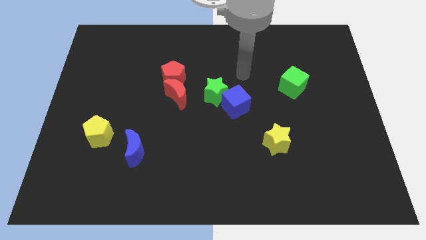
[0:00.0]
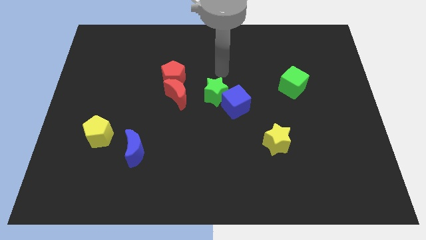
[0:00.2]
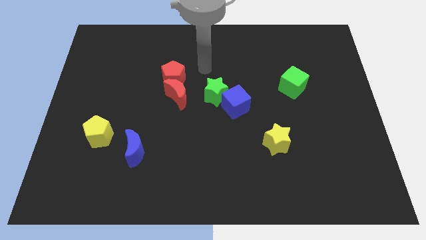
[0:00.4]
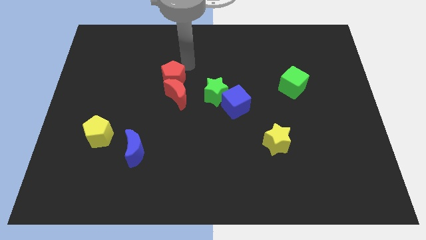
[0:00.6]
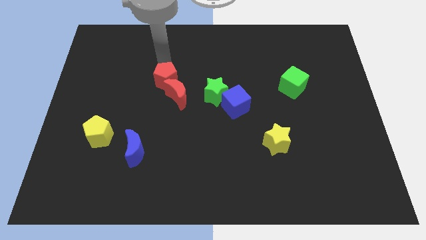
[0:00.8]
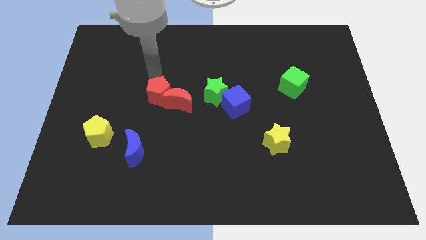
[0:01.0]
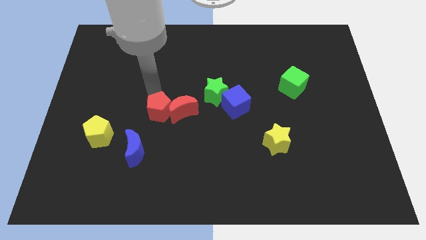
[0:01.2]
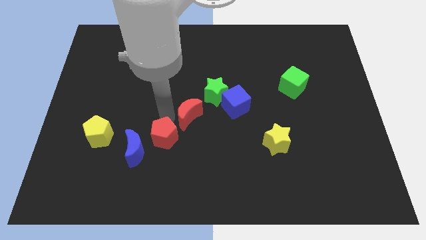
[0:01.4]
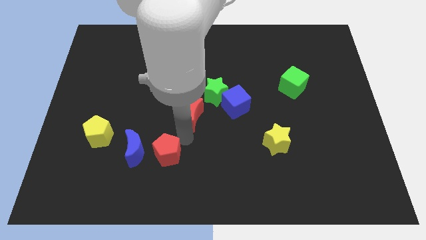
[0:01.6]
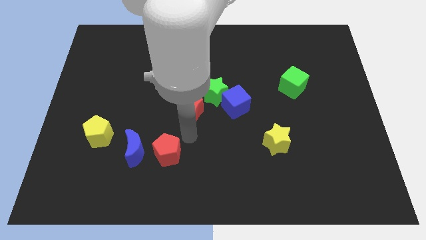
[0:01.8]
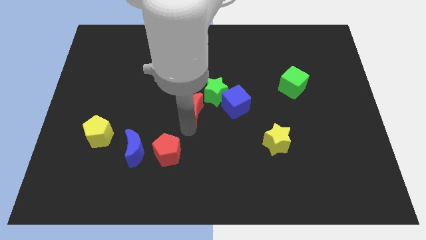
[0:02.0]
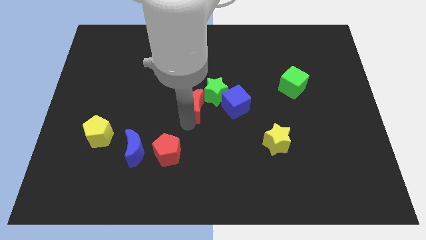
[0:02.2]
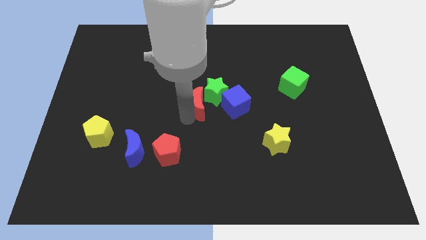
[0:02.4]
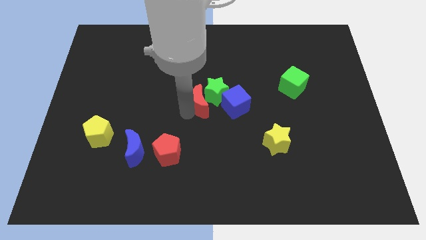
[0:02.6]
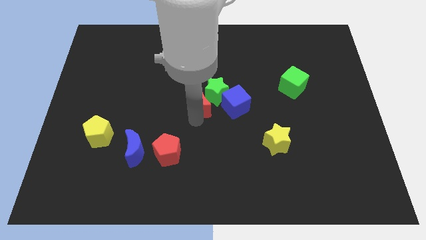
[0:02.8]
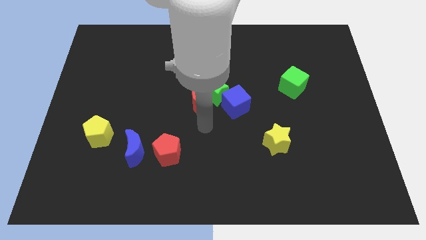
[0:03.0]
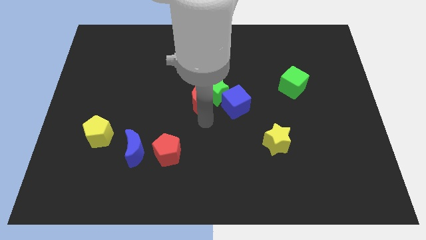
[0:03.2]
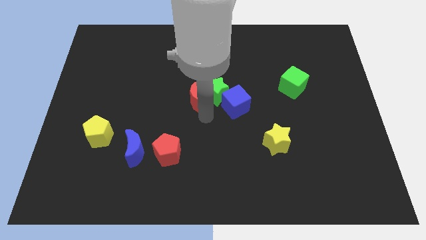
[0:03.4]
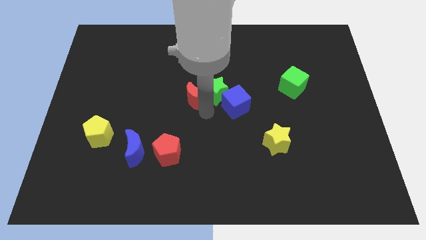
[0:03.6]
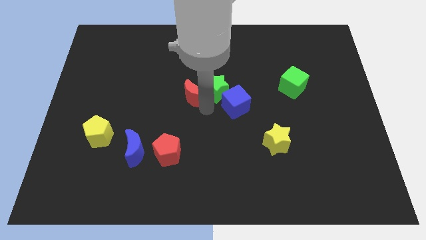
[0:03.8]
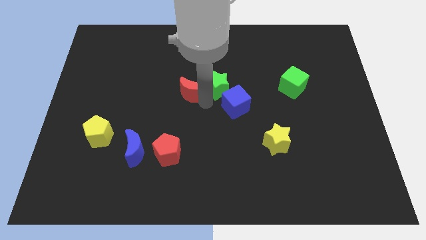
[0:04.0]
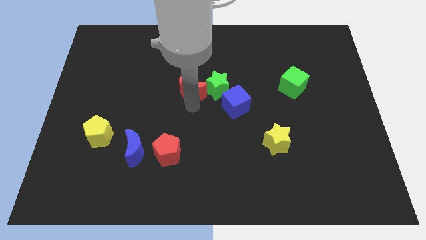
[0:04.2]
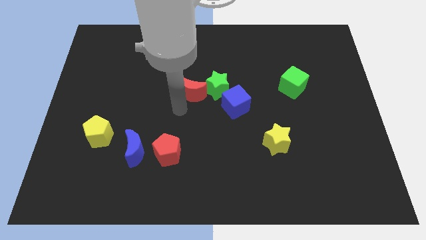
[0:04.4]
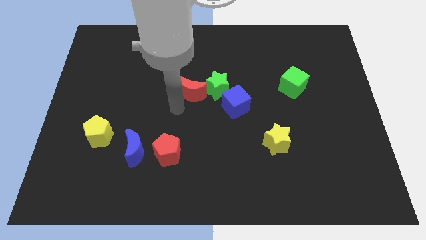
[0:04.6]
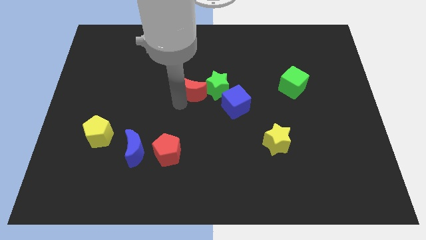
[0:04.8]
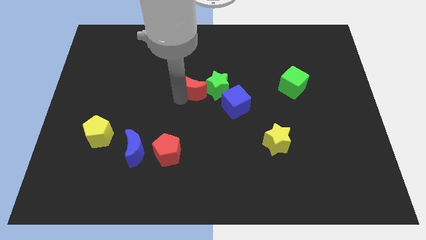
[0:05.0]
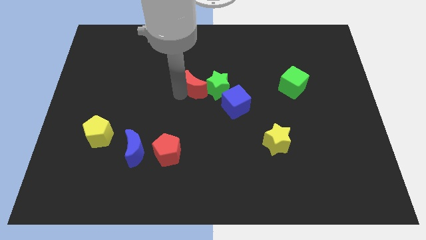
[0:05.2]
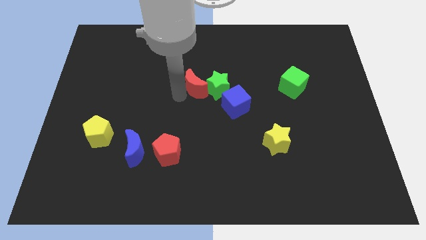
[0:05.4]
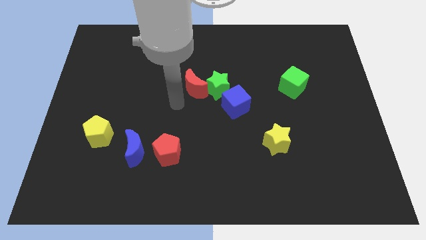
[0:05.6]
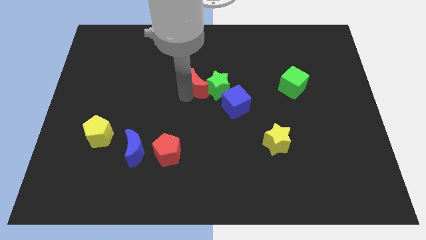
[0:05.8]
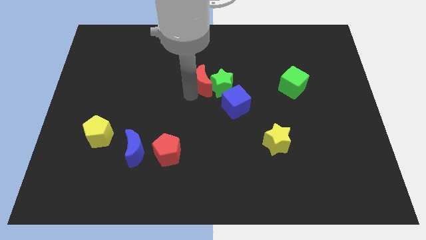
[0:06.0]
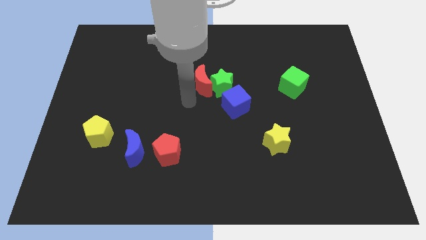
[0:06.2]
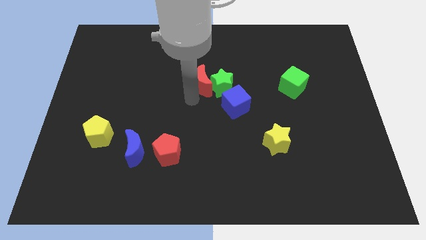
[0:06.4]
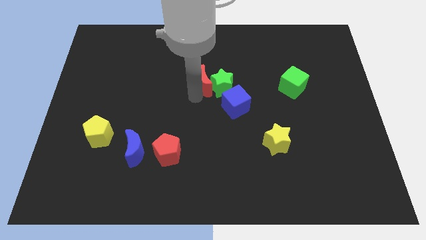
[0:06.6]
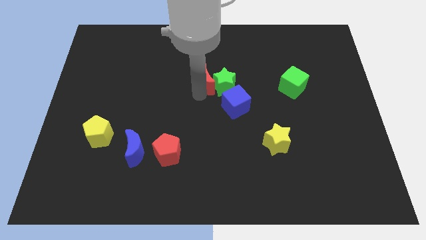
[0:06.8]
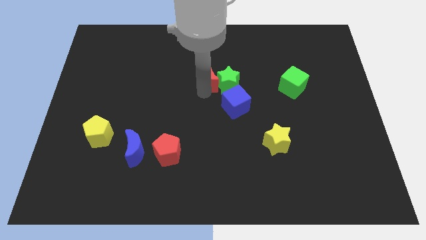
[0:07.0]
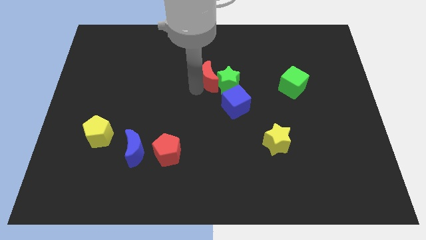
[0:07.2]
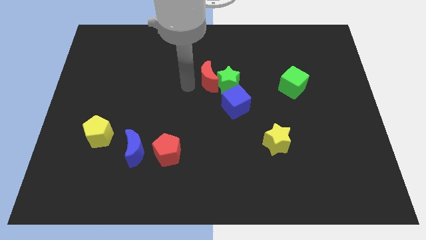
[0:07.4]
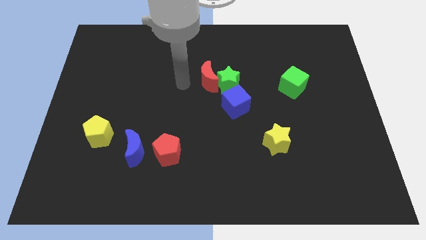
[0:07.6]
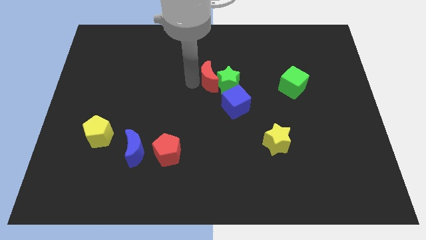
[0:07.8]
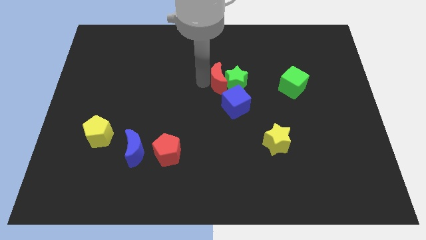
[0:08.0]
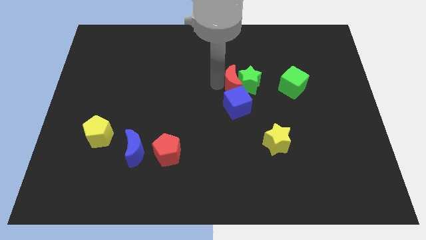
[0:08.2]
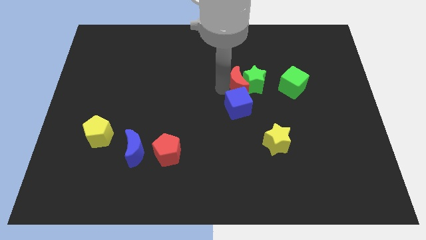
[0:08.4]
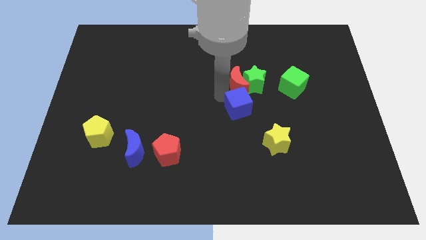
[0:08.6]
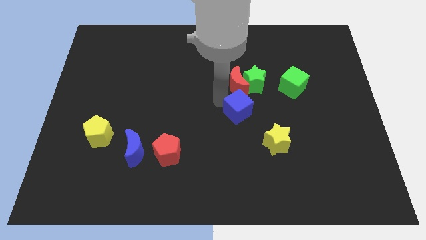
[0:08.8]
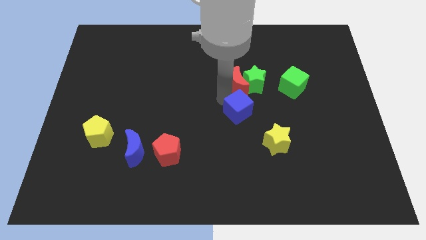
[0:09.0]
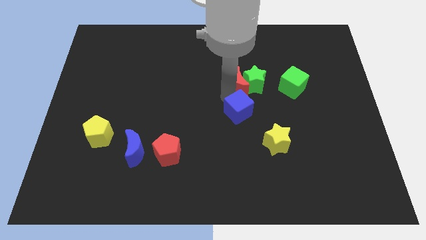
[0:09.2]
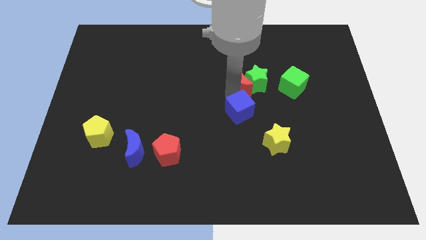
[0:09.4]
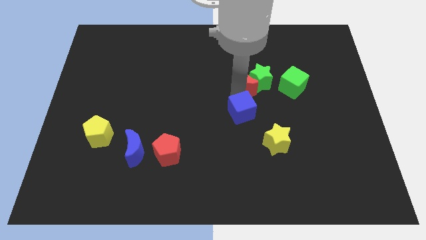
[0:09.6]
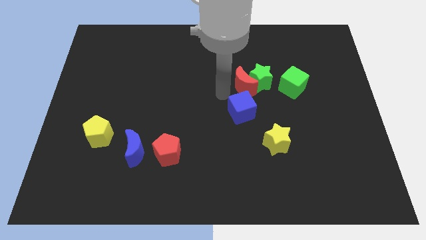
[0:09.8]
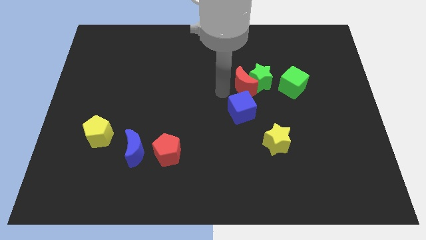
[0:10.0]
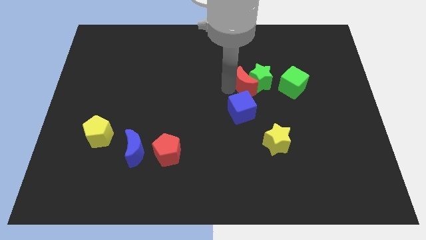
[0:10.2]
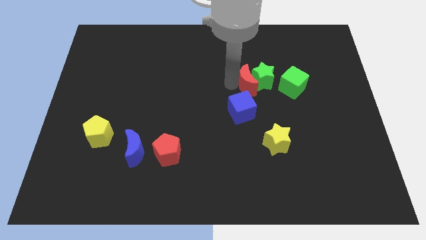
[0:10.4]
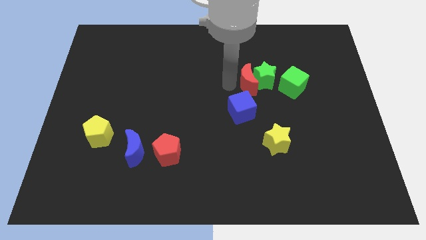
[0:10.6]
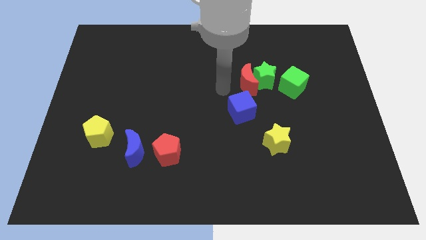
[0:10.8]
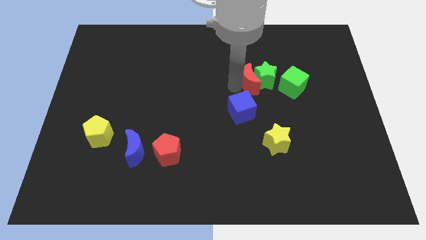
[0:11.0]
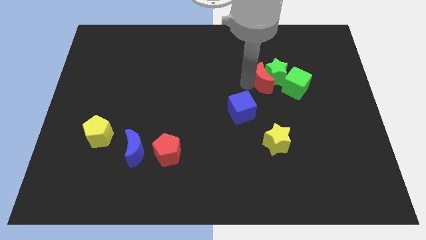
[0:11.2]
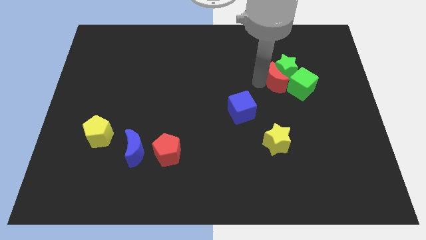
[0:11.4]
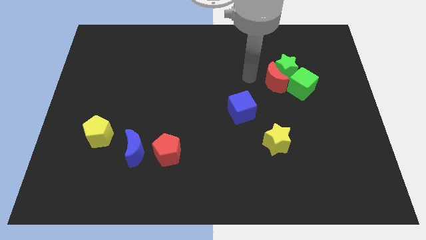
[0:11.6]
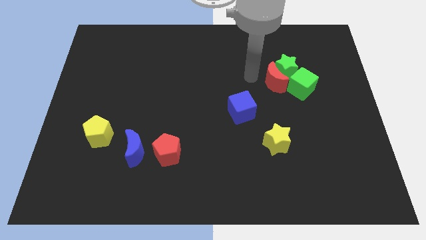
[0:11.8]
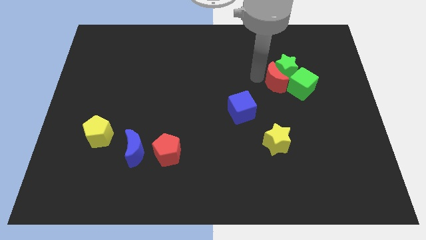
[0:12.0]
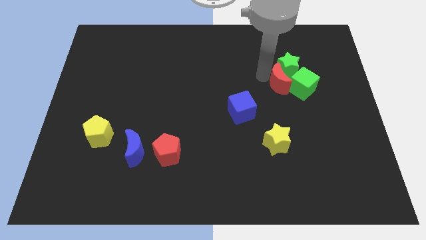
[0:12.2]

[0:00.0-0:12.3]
move the red moon close to the green cube

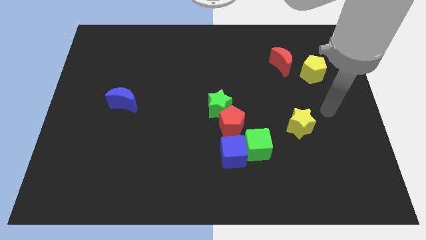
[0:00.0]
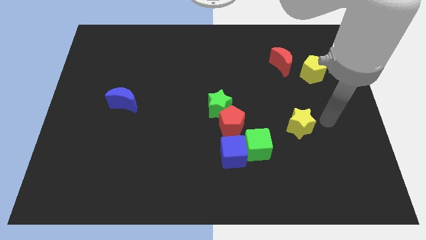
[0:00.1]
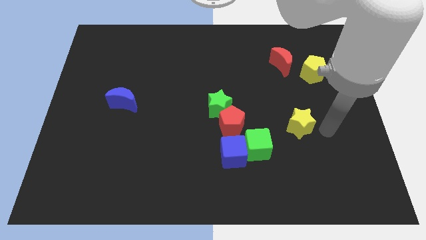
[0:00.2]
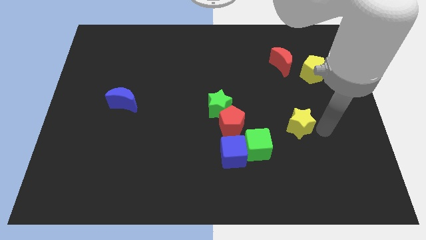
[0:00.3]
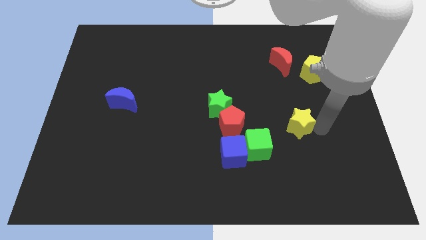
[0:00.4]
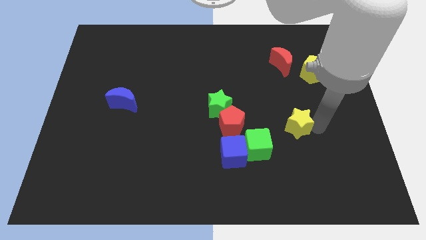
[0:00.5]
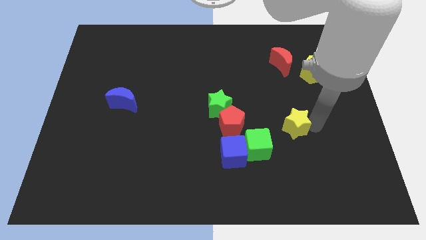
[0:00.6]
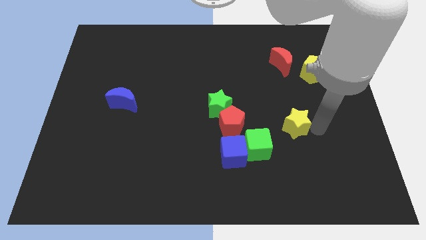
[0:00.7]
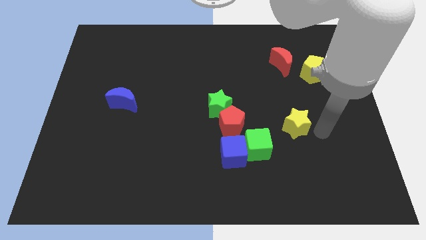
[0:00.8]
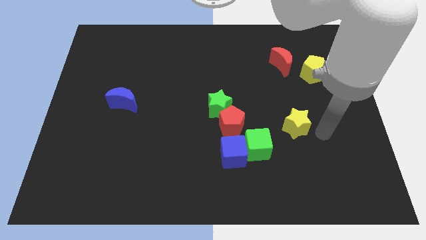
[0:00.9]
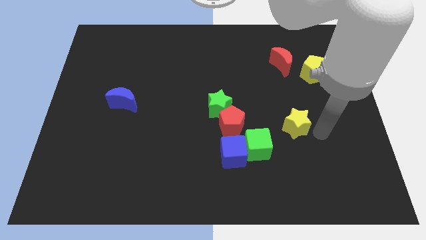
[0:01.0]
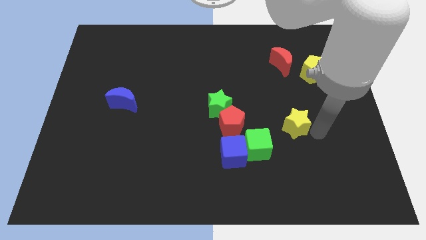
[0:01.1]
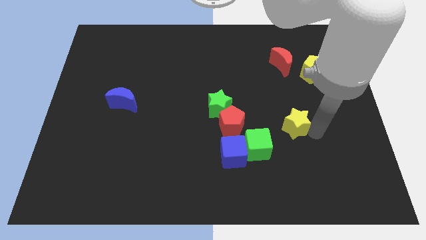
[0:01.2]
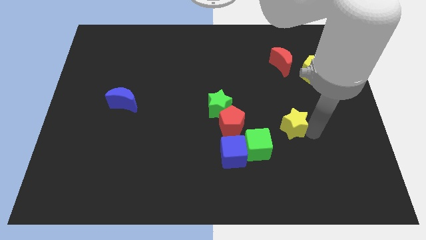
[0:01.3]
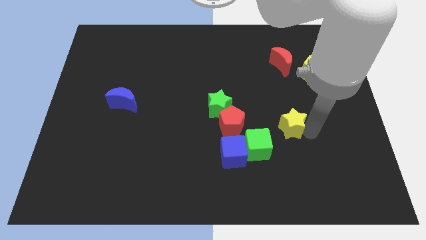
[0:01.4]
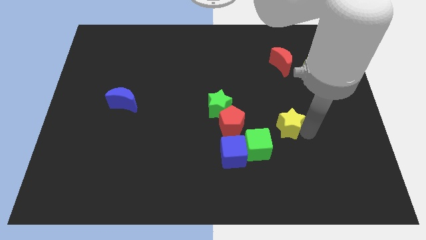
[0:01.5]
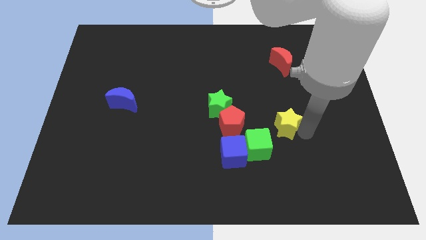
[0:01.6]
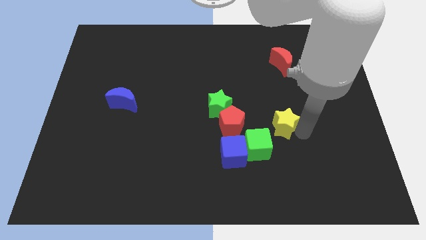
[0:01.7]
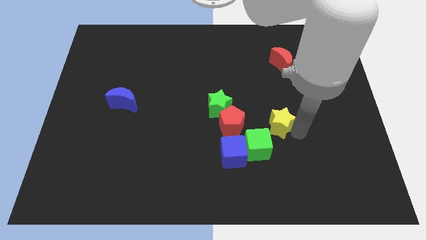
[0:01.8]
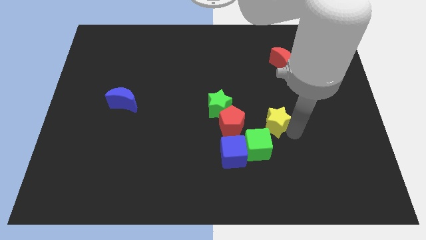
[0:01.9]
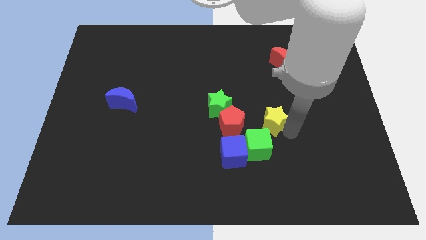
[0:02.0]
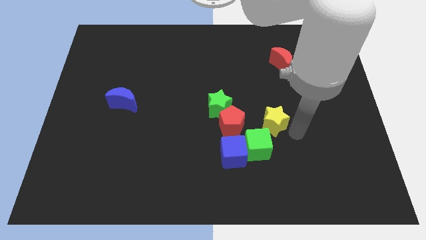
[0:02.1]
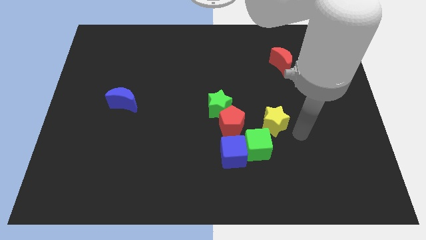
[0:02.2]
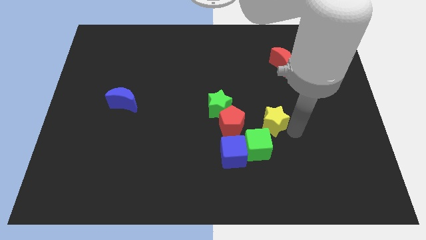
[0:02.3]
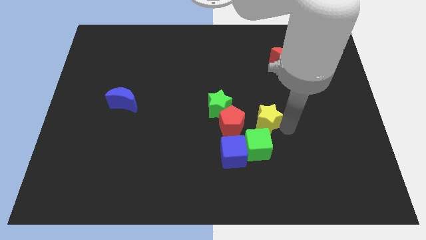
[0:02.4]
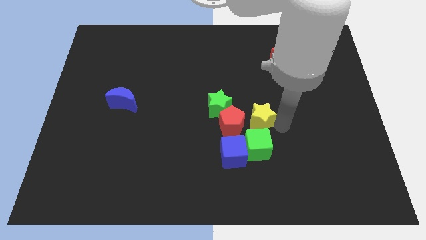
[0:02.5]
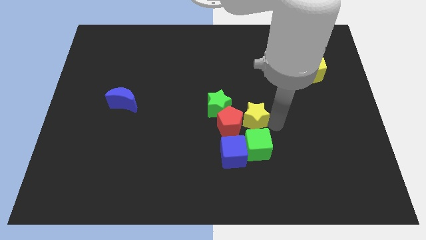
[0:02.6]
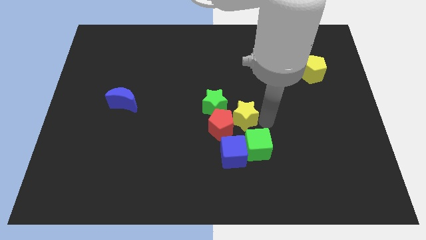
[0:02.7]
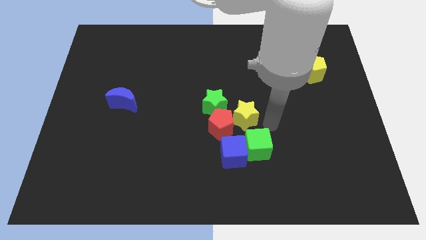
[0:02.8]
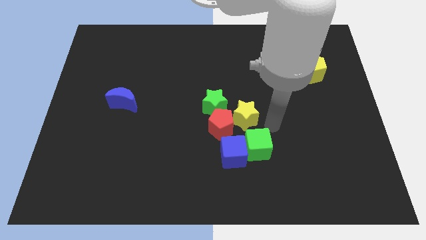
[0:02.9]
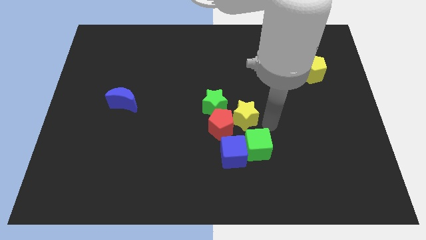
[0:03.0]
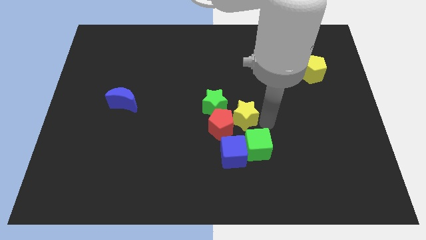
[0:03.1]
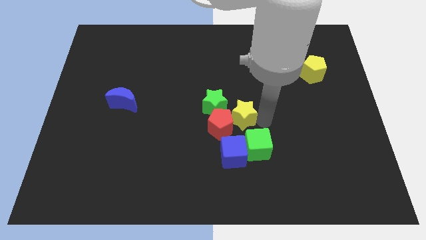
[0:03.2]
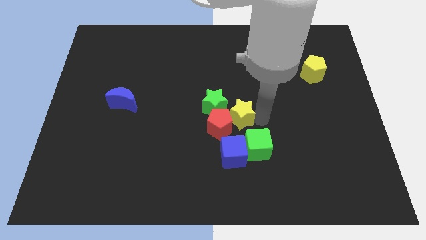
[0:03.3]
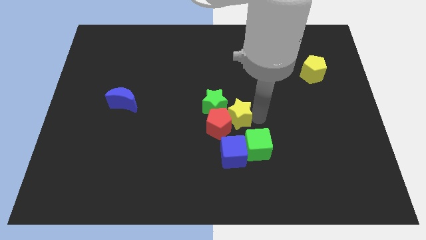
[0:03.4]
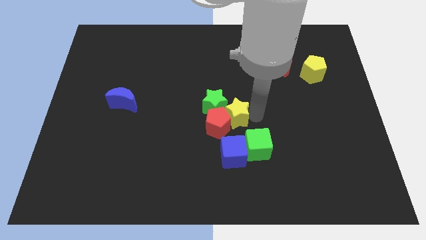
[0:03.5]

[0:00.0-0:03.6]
push the yellow star towards the green star
